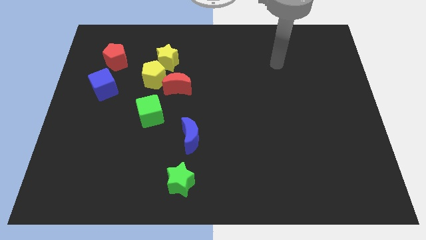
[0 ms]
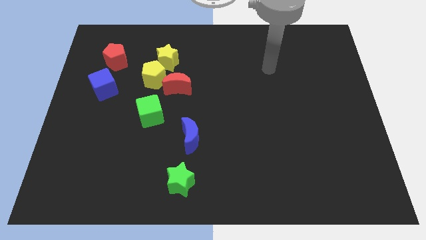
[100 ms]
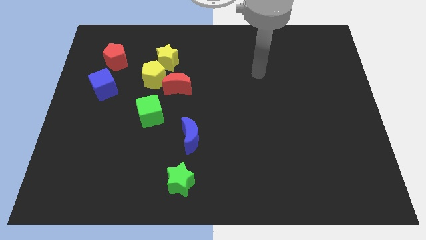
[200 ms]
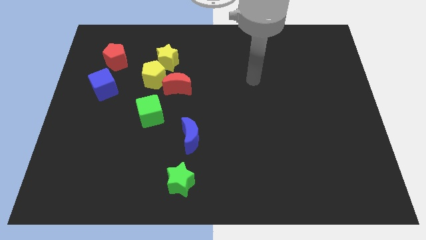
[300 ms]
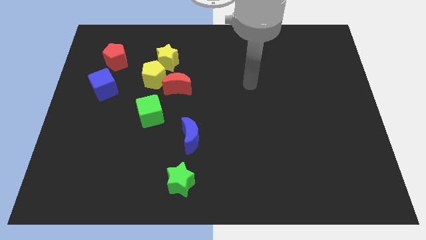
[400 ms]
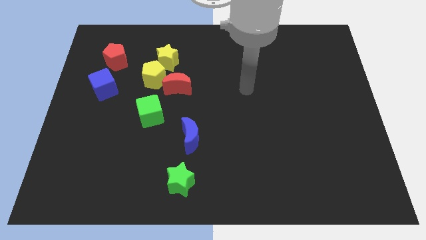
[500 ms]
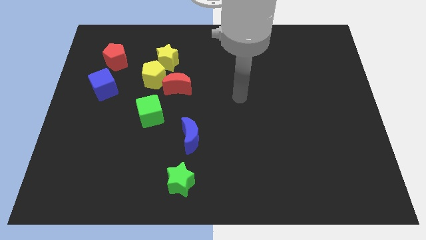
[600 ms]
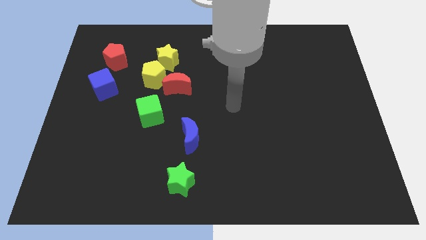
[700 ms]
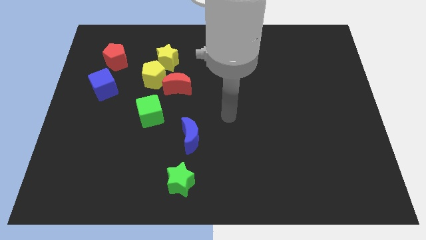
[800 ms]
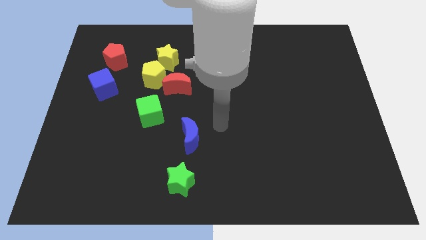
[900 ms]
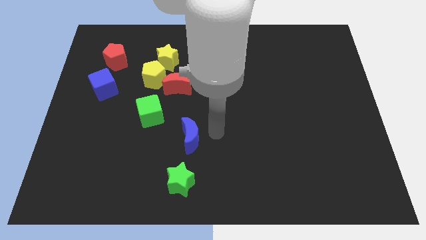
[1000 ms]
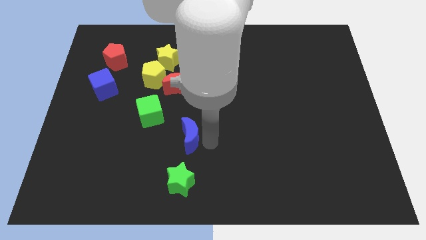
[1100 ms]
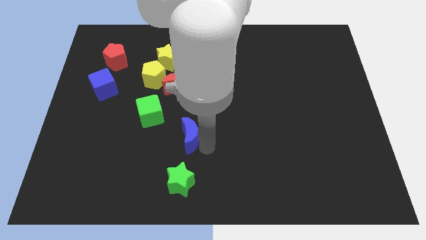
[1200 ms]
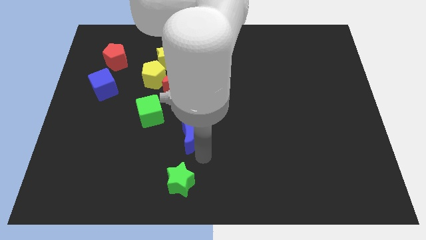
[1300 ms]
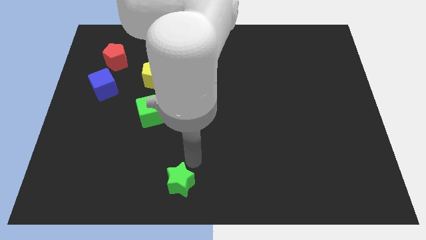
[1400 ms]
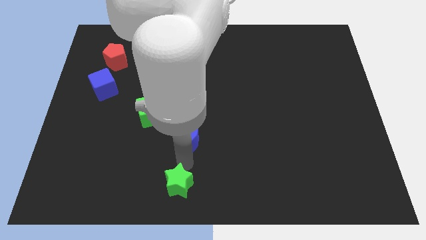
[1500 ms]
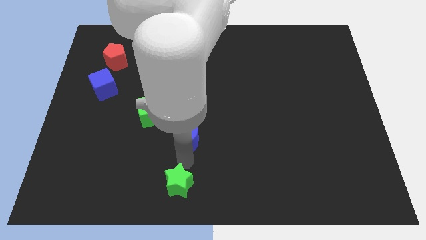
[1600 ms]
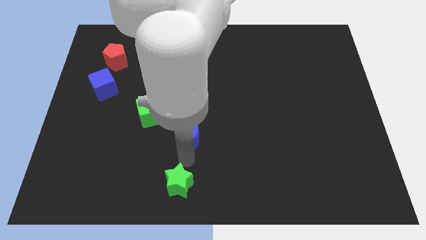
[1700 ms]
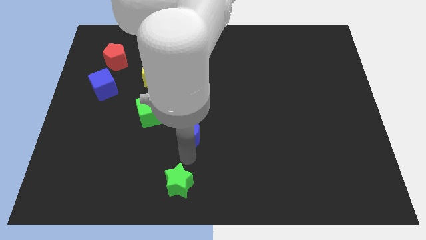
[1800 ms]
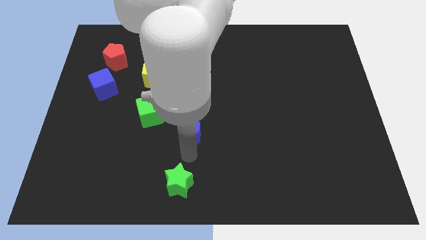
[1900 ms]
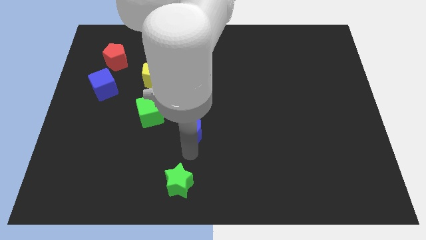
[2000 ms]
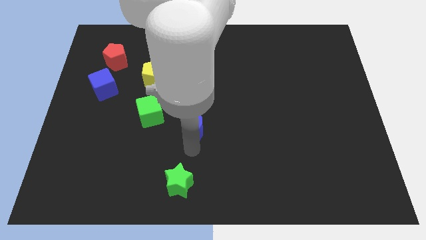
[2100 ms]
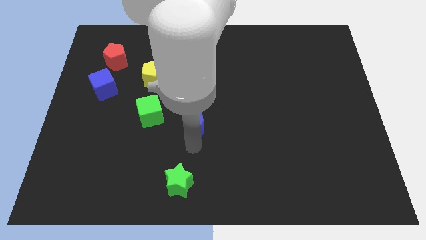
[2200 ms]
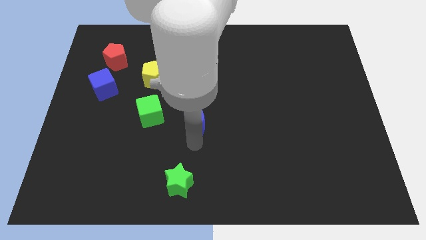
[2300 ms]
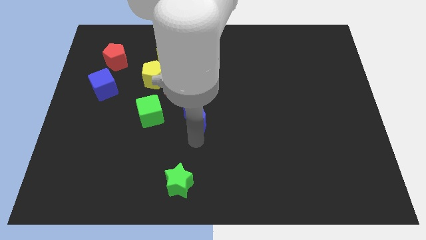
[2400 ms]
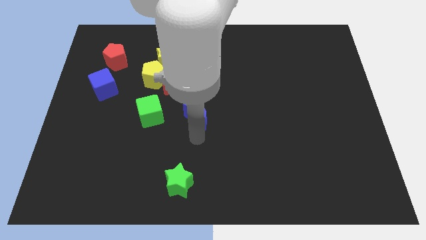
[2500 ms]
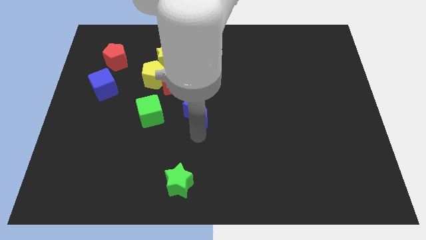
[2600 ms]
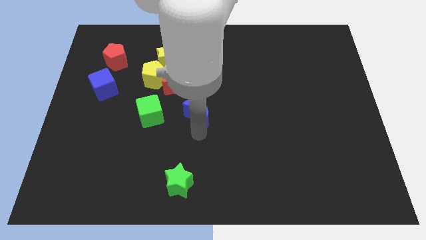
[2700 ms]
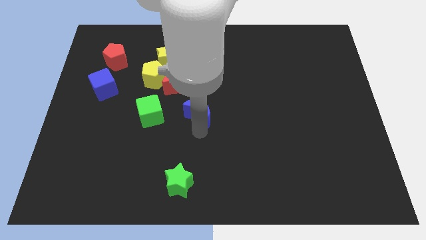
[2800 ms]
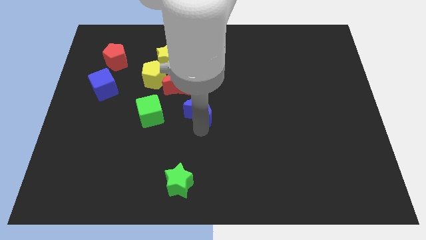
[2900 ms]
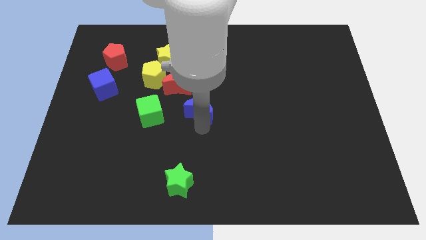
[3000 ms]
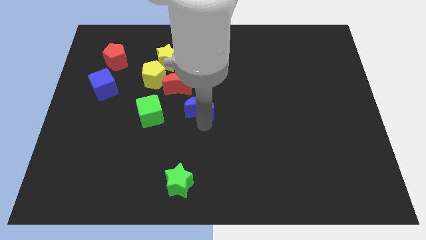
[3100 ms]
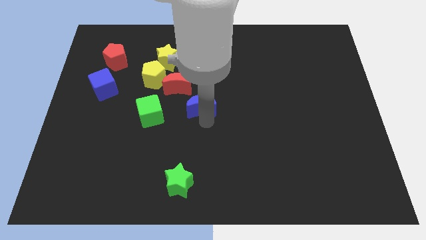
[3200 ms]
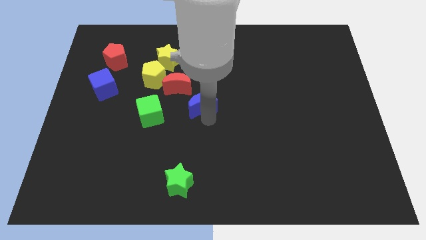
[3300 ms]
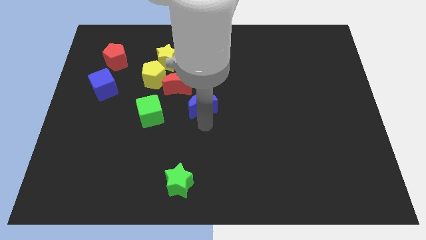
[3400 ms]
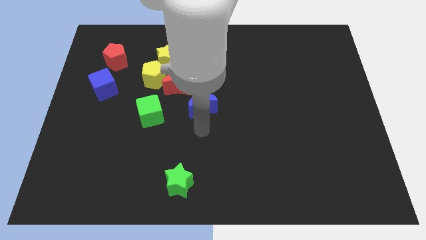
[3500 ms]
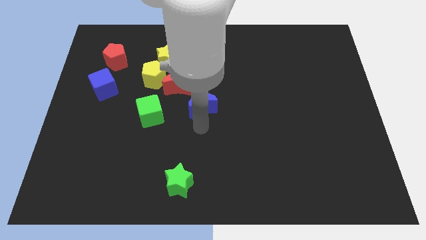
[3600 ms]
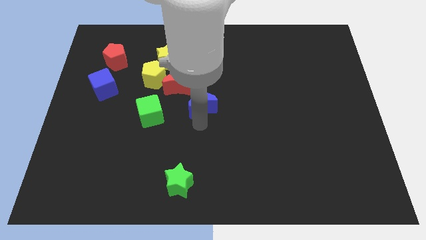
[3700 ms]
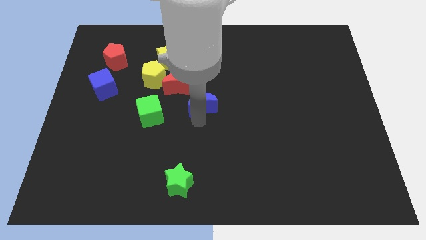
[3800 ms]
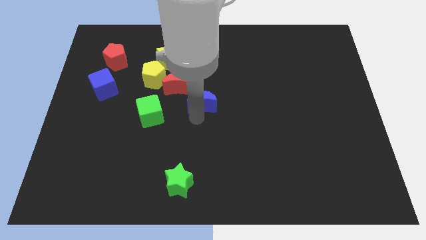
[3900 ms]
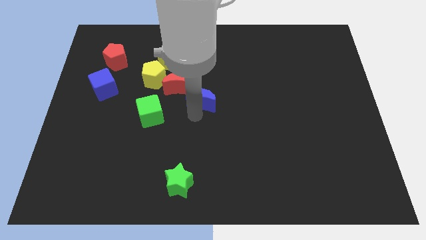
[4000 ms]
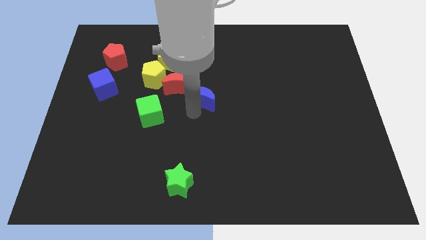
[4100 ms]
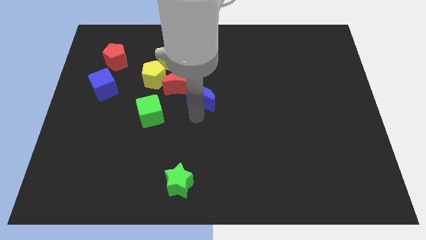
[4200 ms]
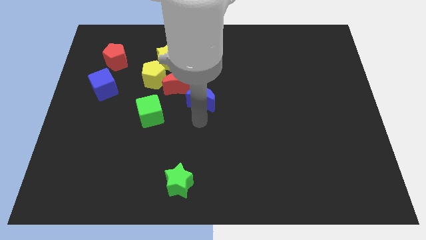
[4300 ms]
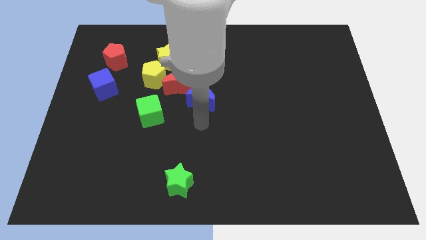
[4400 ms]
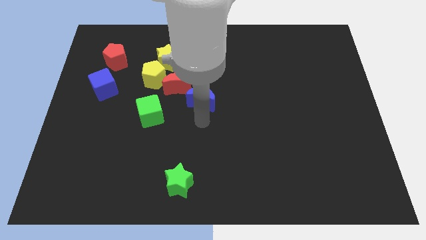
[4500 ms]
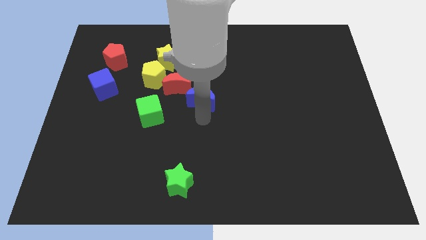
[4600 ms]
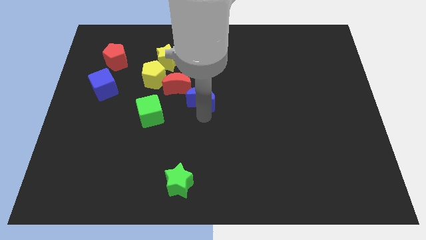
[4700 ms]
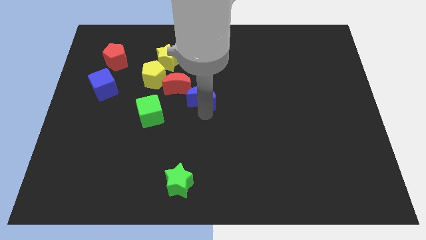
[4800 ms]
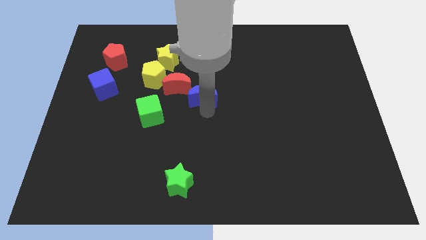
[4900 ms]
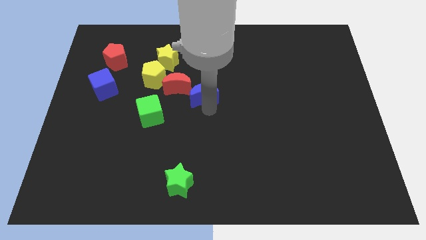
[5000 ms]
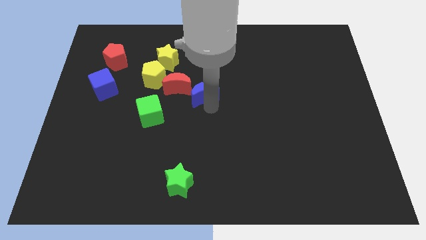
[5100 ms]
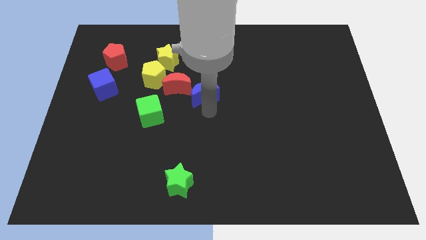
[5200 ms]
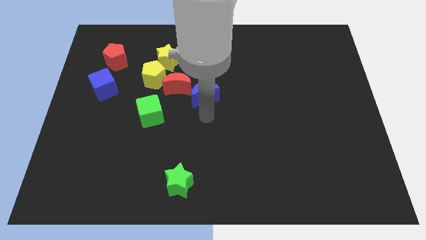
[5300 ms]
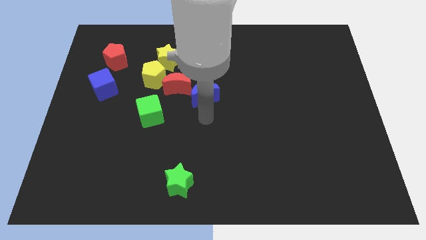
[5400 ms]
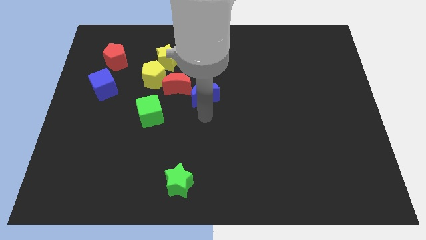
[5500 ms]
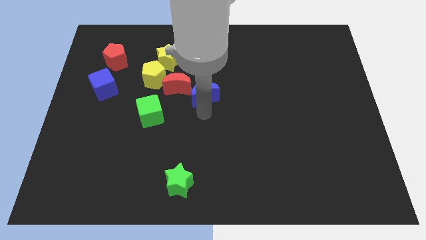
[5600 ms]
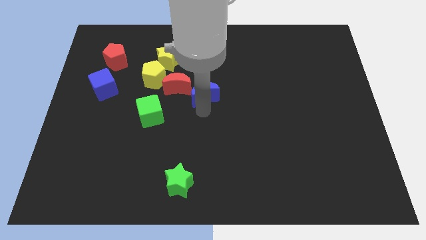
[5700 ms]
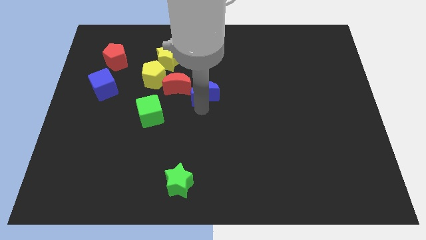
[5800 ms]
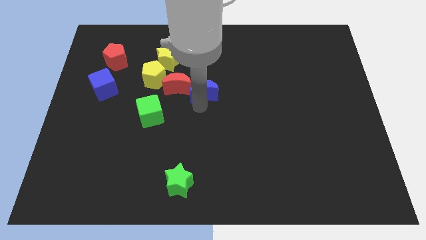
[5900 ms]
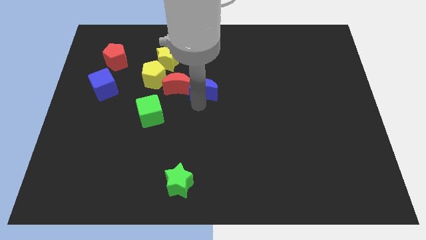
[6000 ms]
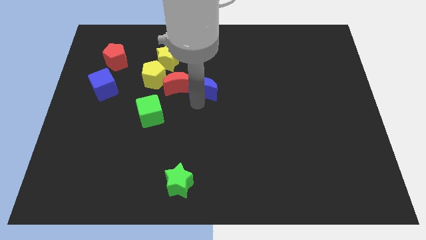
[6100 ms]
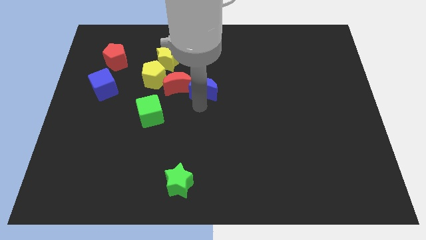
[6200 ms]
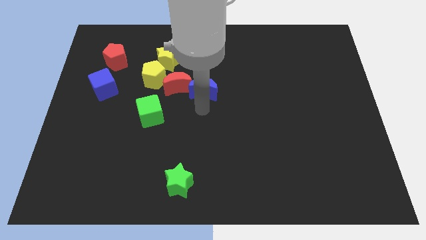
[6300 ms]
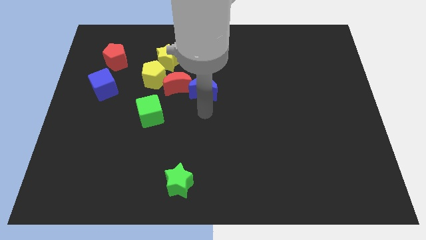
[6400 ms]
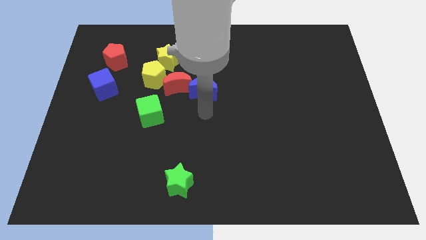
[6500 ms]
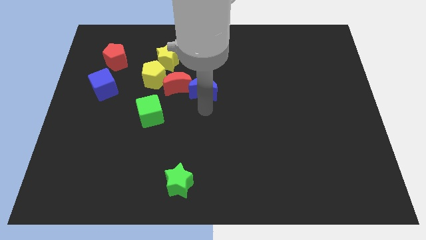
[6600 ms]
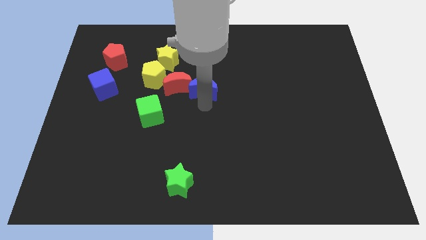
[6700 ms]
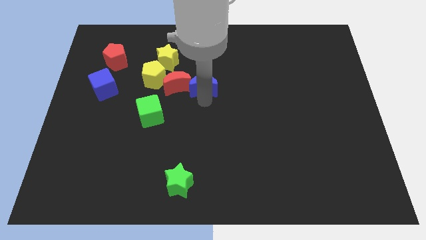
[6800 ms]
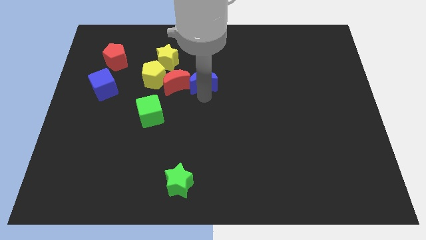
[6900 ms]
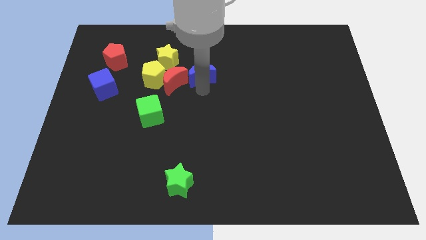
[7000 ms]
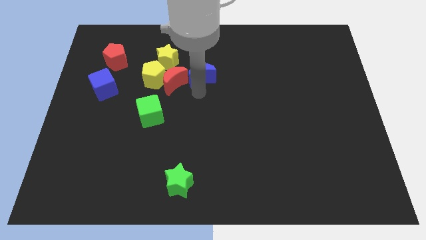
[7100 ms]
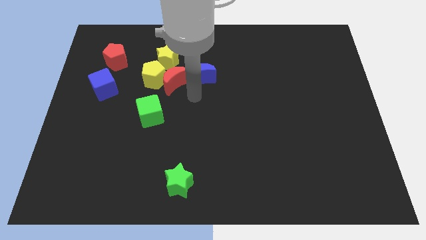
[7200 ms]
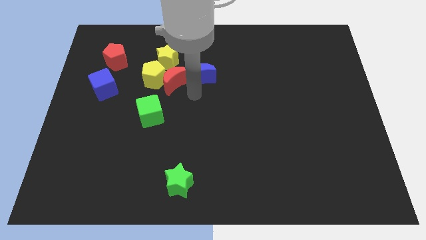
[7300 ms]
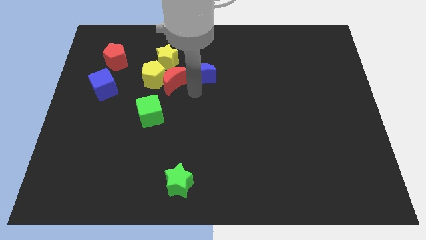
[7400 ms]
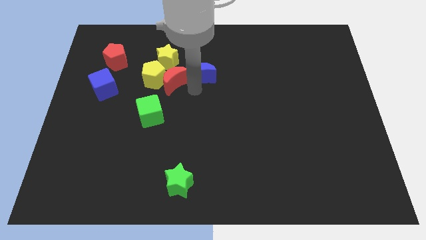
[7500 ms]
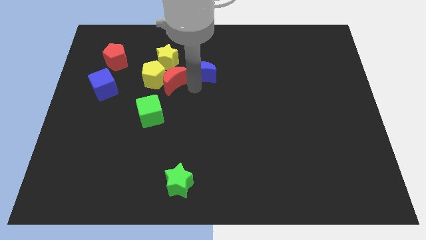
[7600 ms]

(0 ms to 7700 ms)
slide the blue moon to the right of the yellow star
